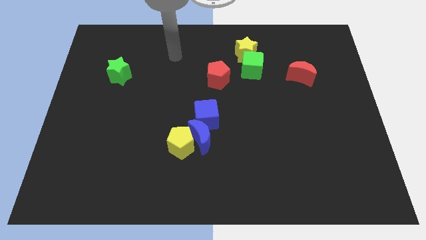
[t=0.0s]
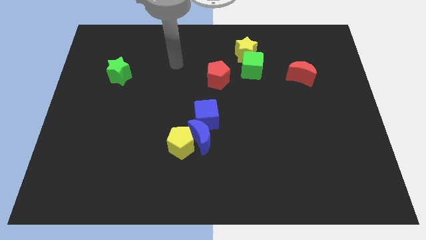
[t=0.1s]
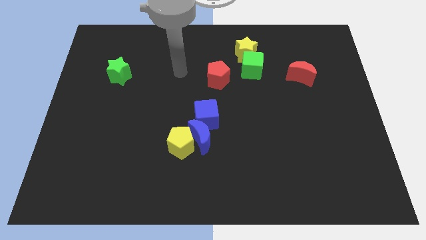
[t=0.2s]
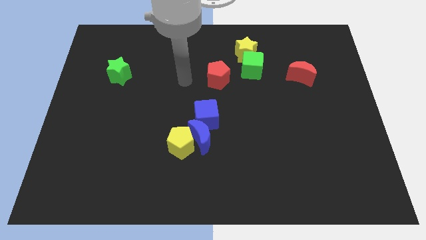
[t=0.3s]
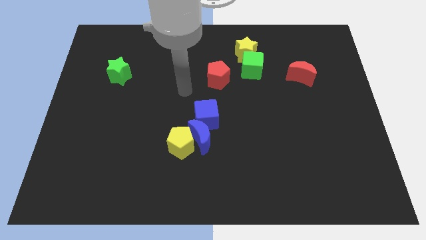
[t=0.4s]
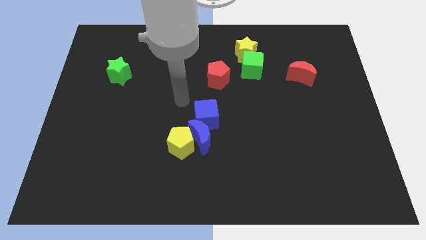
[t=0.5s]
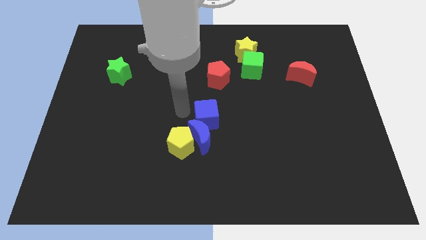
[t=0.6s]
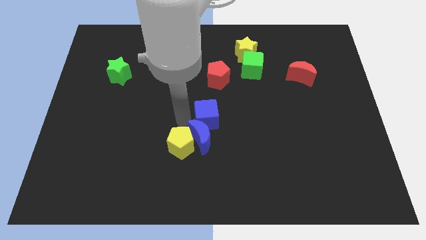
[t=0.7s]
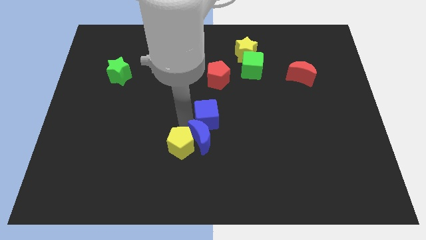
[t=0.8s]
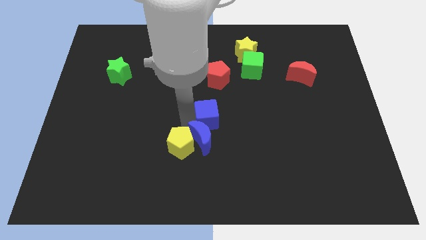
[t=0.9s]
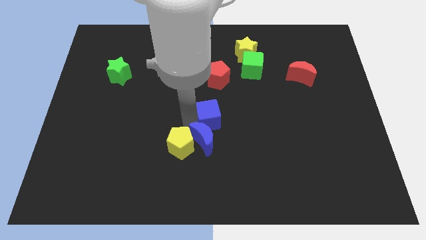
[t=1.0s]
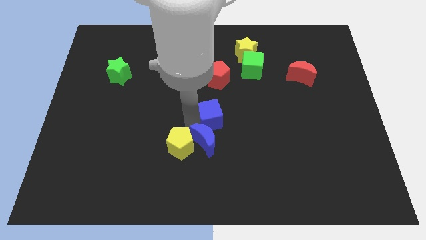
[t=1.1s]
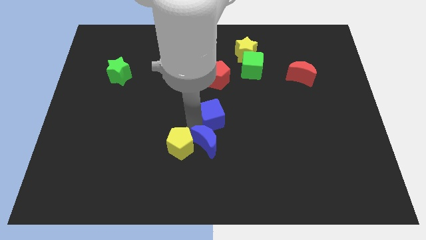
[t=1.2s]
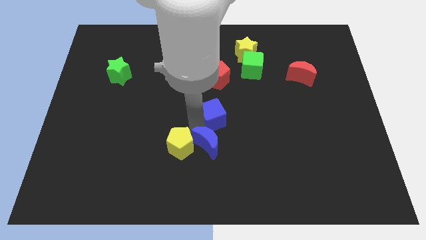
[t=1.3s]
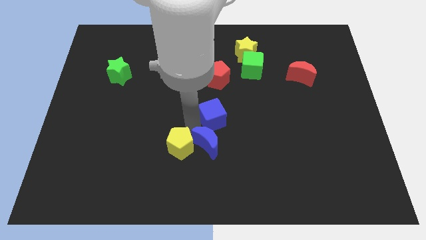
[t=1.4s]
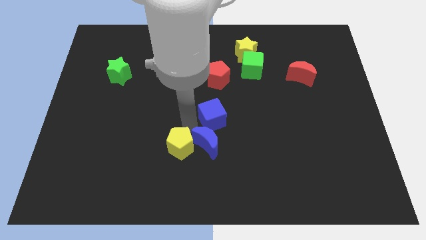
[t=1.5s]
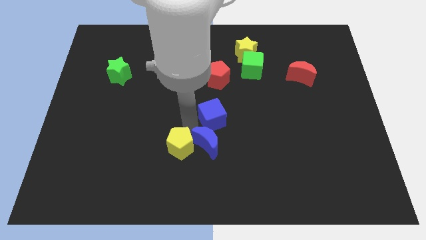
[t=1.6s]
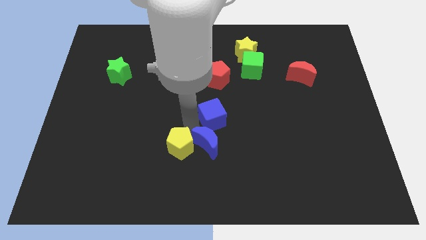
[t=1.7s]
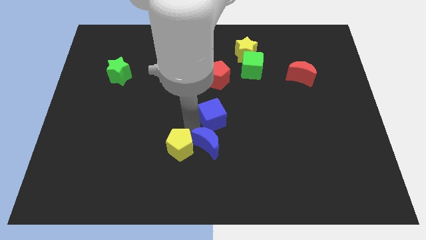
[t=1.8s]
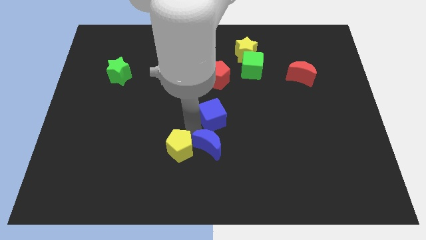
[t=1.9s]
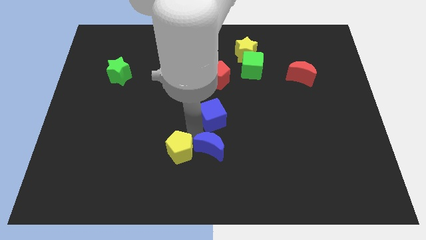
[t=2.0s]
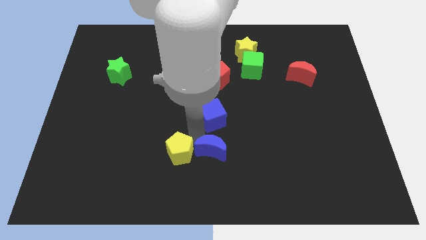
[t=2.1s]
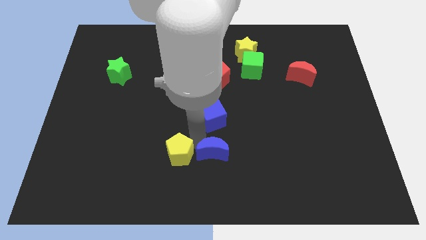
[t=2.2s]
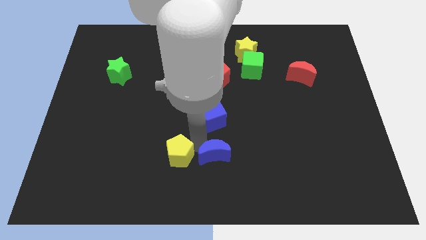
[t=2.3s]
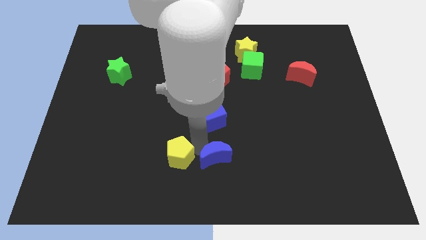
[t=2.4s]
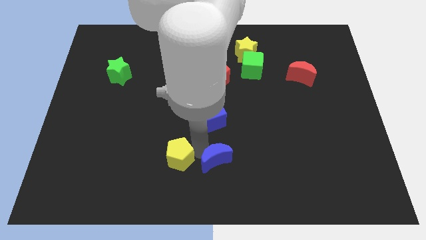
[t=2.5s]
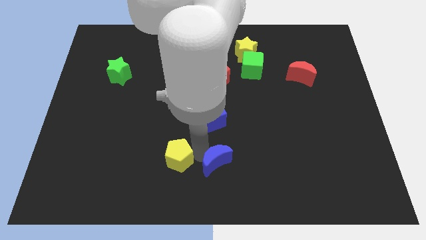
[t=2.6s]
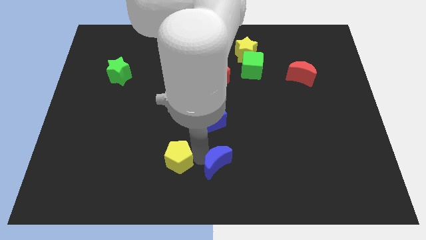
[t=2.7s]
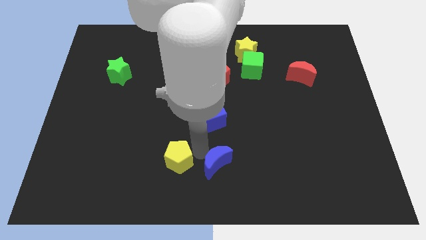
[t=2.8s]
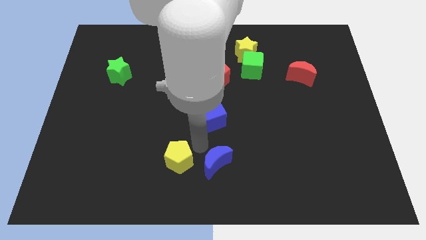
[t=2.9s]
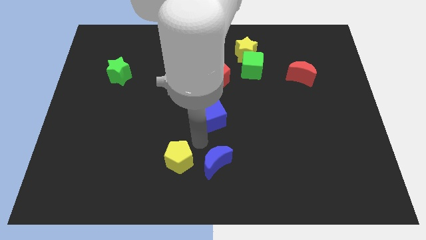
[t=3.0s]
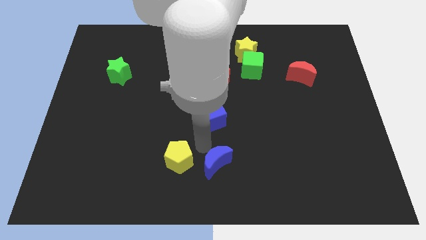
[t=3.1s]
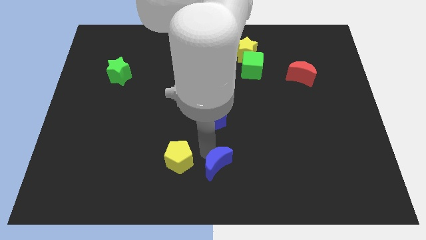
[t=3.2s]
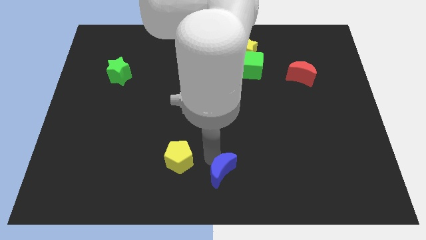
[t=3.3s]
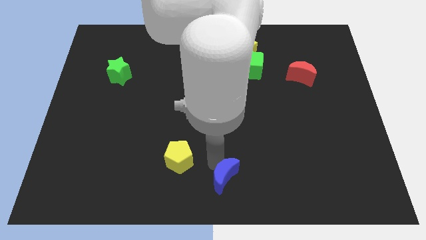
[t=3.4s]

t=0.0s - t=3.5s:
pull the blue moon apart from the yellow pentagon and blue cube

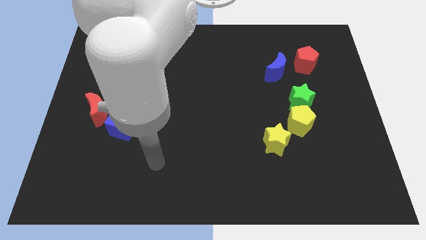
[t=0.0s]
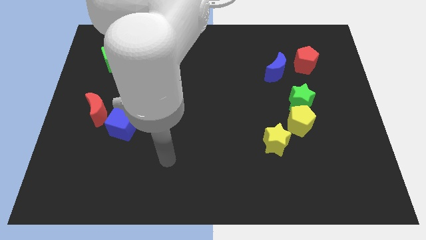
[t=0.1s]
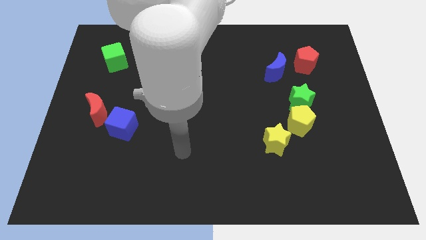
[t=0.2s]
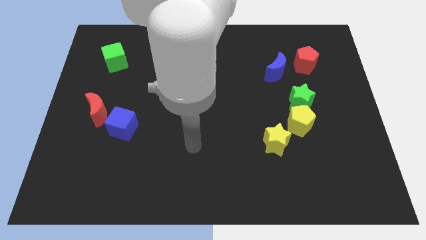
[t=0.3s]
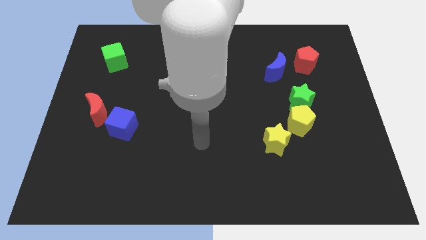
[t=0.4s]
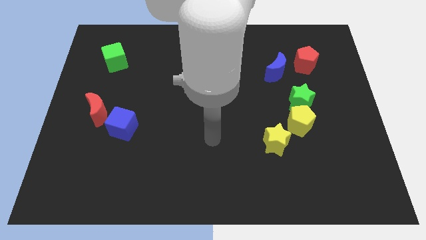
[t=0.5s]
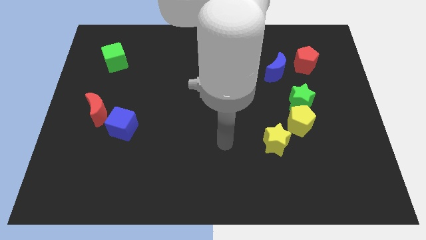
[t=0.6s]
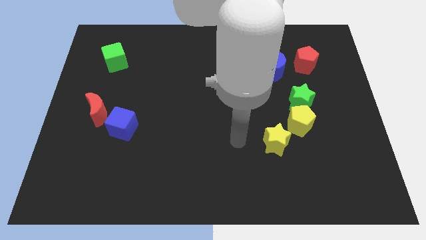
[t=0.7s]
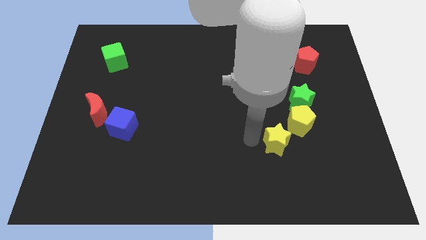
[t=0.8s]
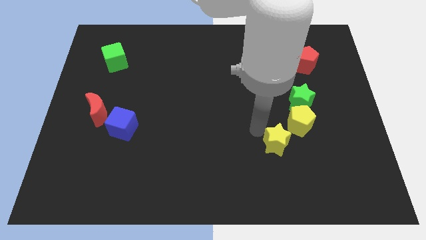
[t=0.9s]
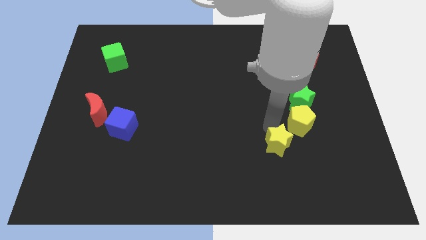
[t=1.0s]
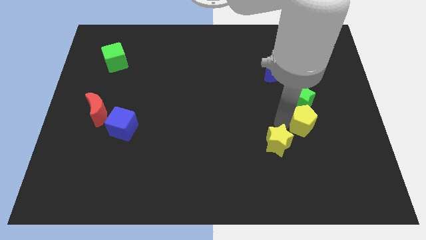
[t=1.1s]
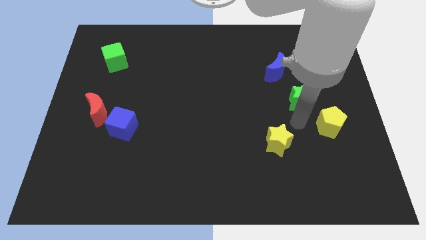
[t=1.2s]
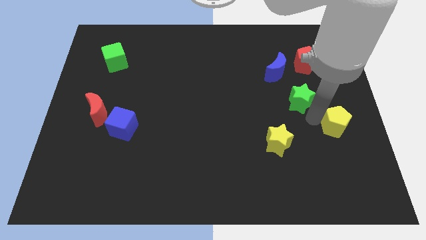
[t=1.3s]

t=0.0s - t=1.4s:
pull the green star apart from the yellow pentagon

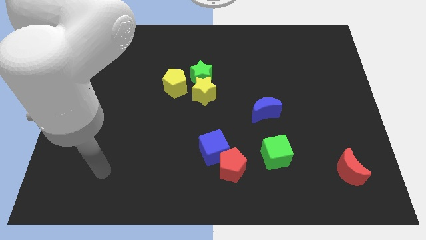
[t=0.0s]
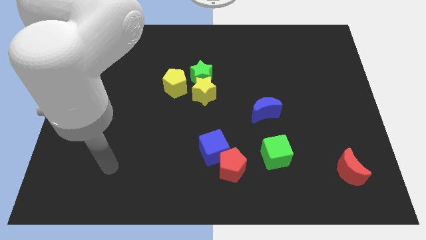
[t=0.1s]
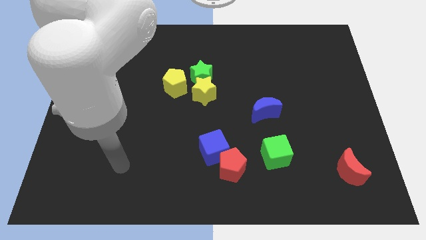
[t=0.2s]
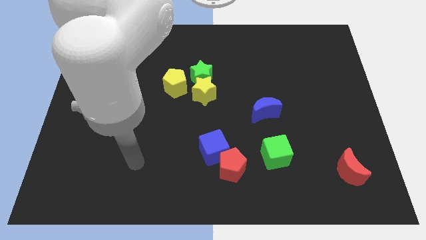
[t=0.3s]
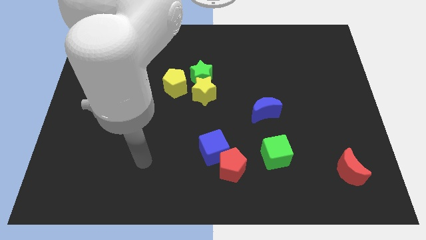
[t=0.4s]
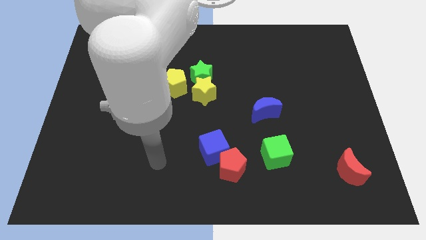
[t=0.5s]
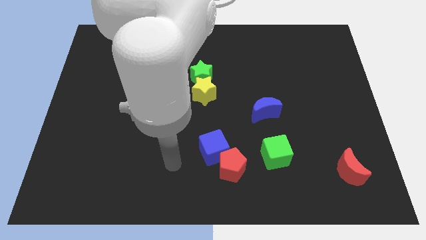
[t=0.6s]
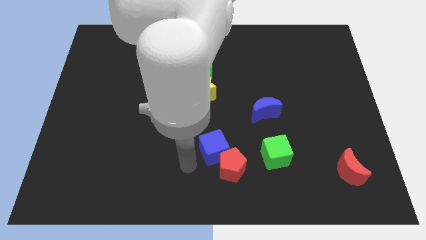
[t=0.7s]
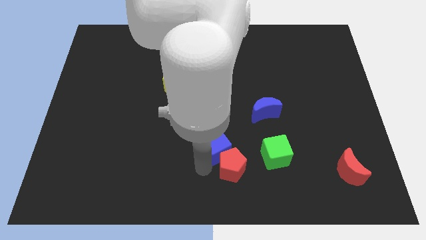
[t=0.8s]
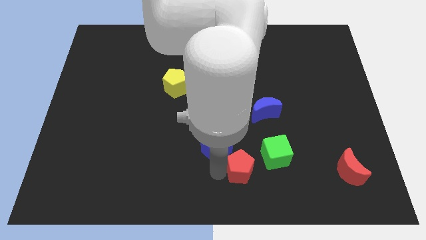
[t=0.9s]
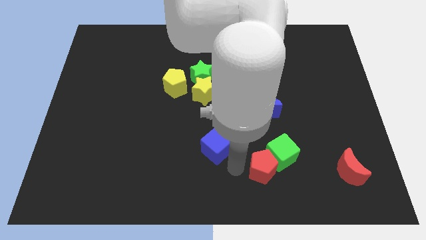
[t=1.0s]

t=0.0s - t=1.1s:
separate the blue cube from the red pentagon

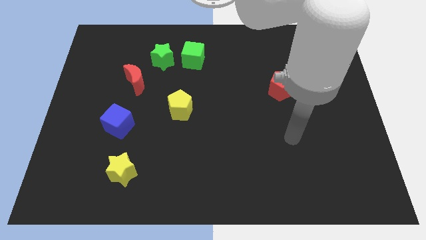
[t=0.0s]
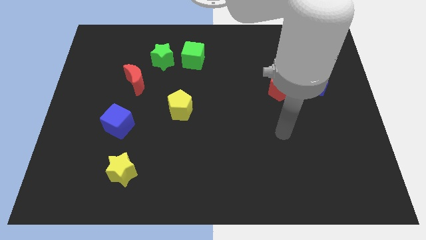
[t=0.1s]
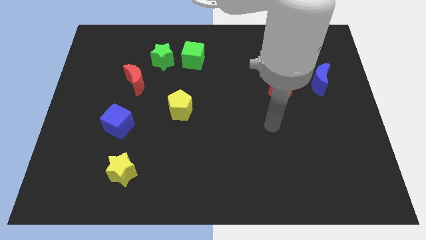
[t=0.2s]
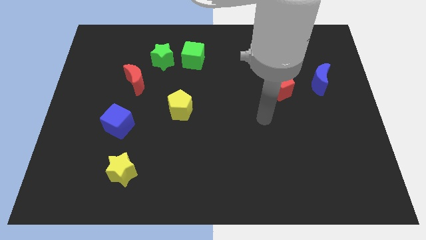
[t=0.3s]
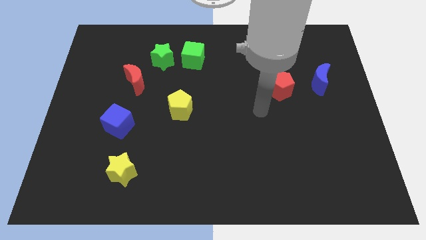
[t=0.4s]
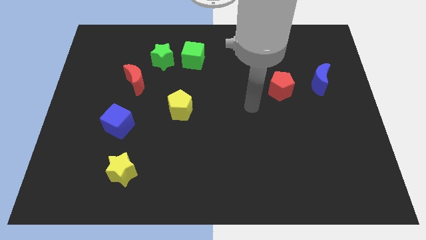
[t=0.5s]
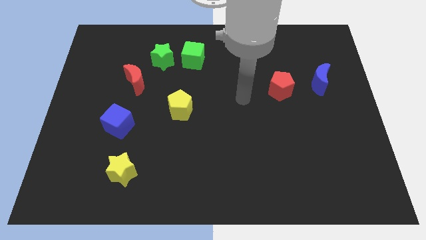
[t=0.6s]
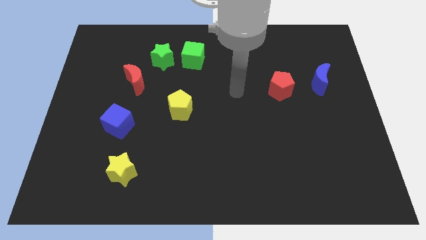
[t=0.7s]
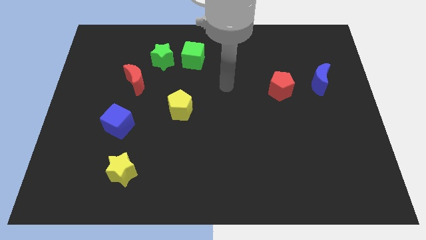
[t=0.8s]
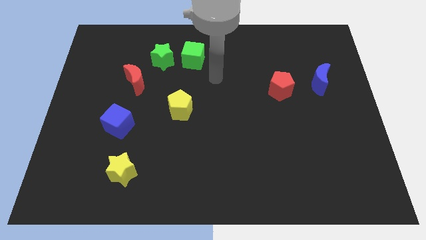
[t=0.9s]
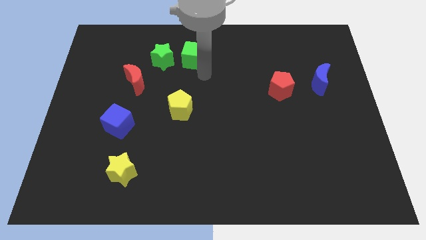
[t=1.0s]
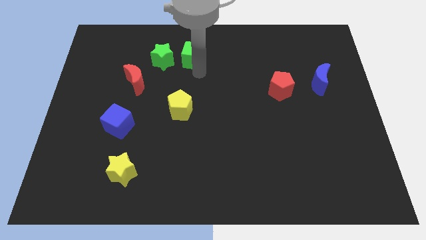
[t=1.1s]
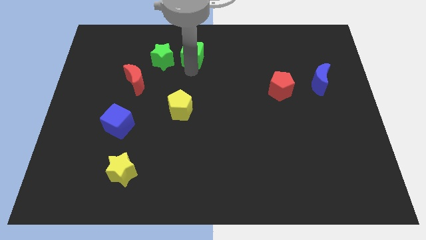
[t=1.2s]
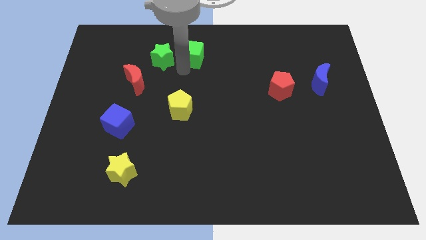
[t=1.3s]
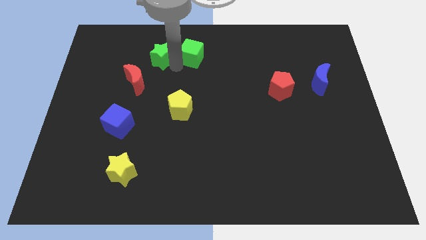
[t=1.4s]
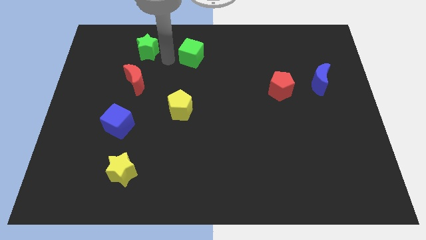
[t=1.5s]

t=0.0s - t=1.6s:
move the green cube away from the green star

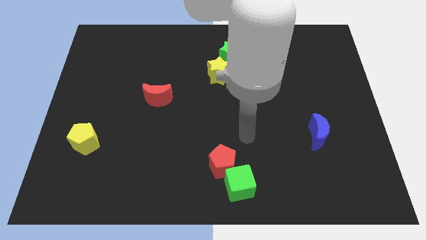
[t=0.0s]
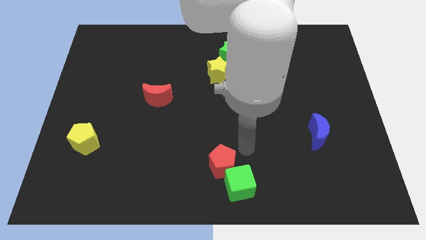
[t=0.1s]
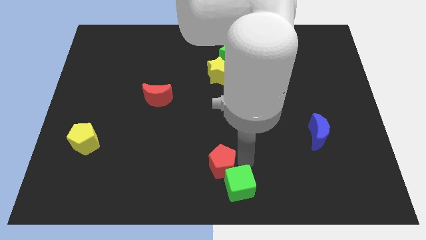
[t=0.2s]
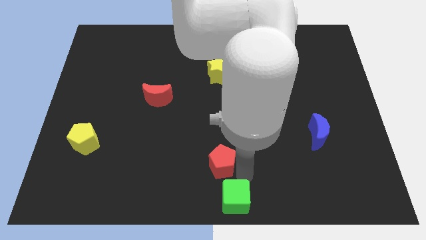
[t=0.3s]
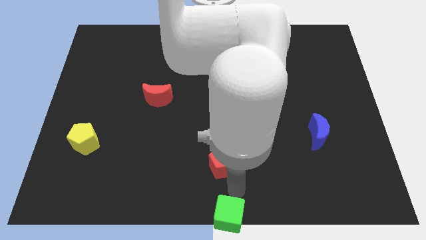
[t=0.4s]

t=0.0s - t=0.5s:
move the red pentagon away from the green cube

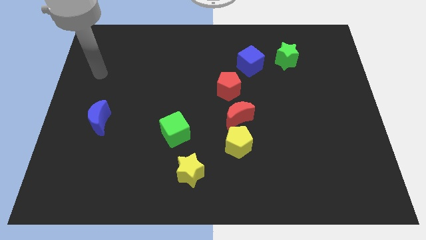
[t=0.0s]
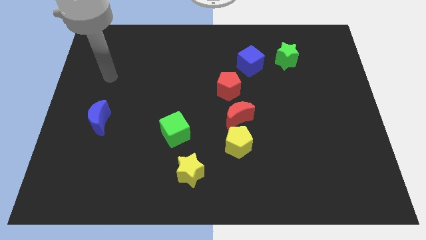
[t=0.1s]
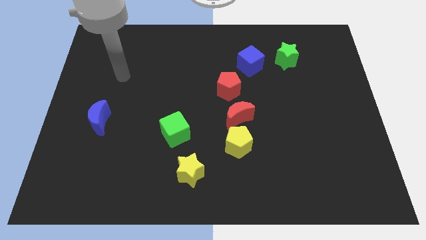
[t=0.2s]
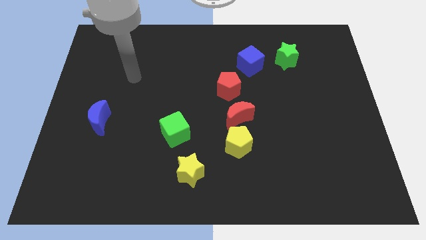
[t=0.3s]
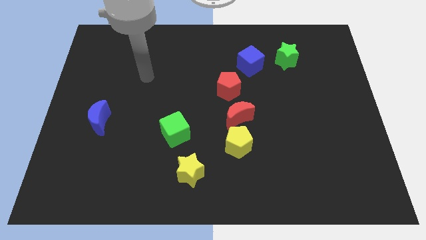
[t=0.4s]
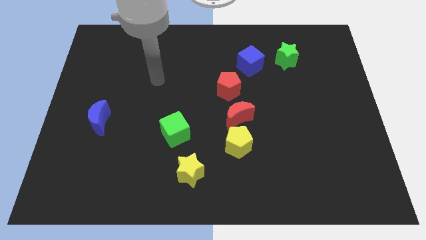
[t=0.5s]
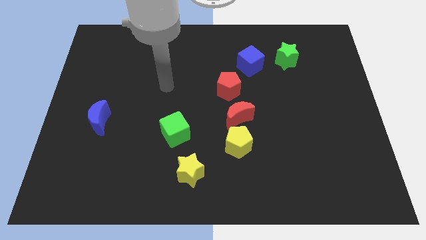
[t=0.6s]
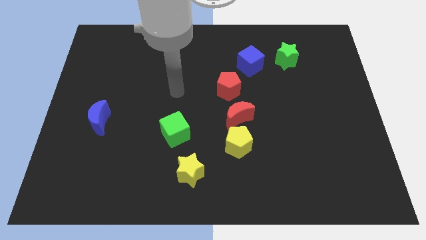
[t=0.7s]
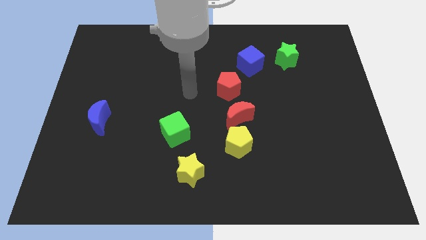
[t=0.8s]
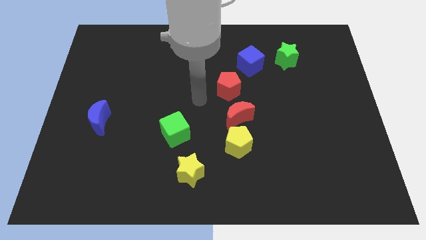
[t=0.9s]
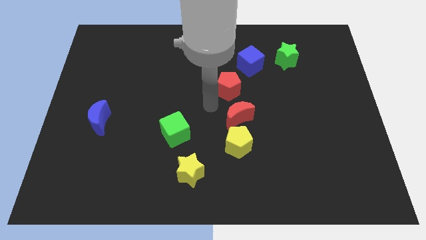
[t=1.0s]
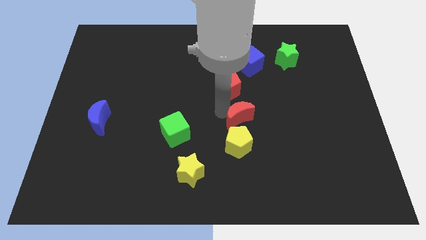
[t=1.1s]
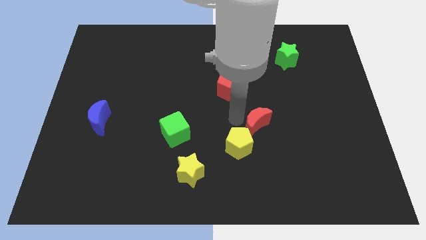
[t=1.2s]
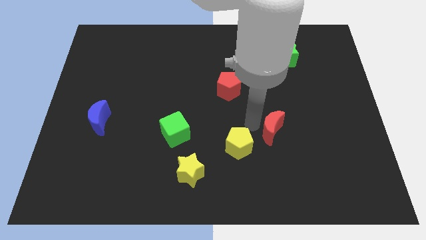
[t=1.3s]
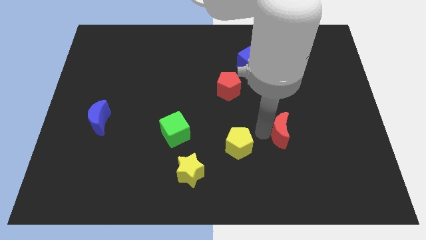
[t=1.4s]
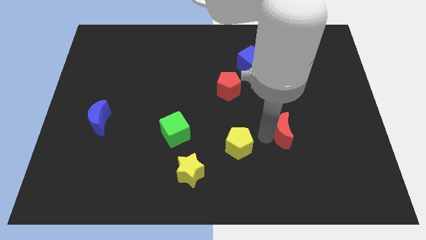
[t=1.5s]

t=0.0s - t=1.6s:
move the yellow pentagon away from the red moon
